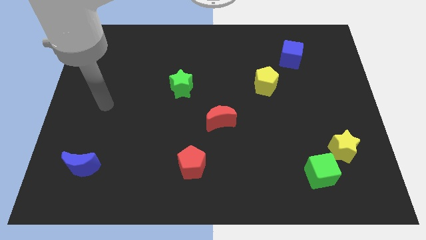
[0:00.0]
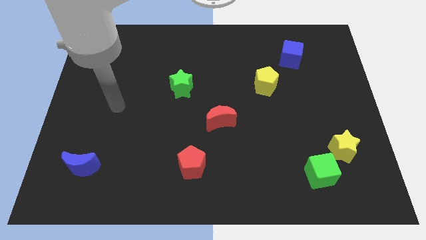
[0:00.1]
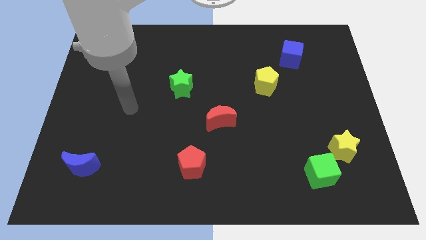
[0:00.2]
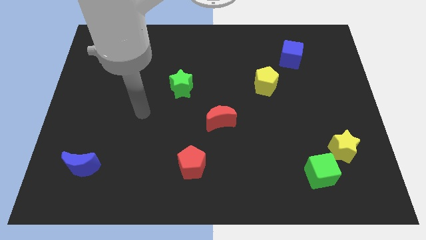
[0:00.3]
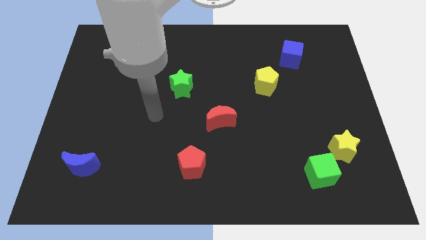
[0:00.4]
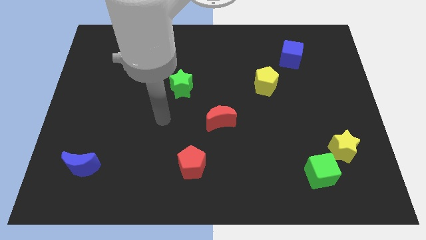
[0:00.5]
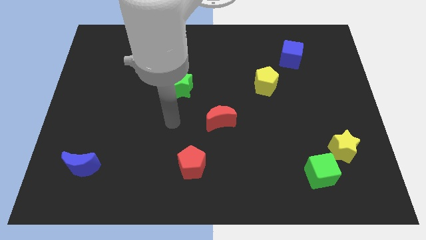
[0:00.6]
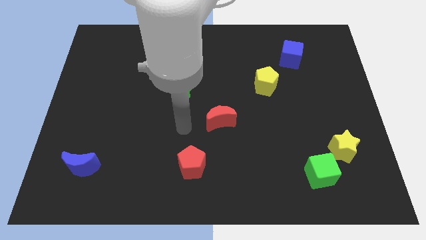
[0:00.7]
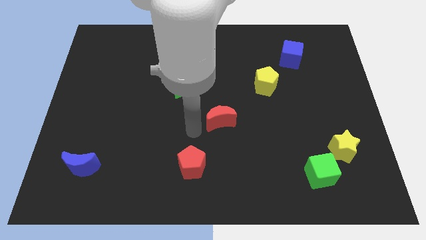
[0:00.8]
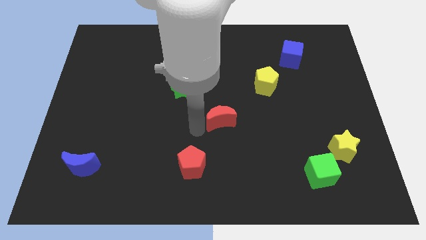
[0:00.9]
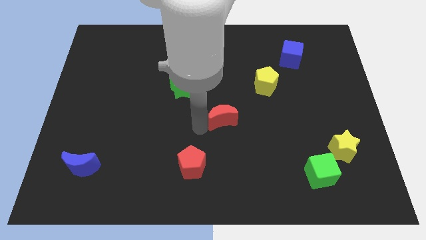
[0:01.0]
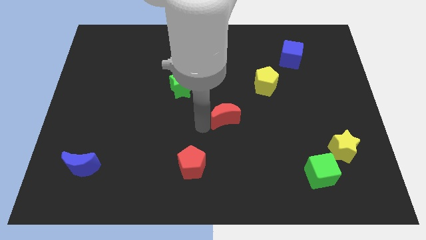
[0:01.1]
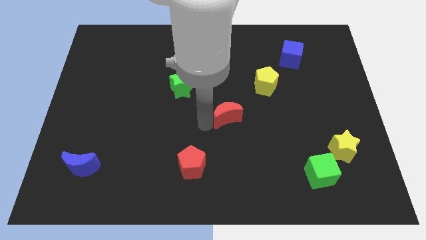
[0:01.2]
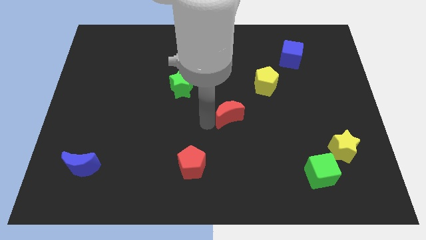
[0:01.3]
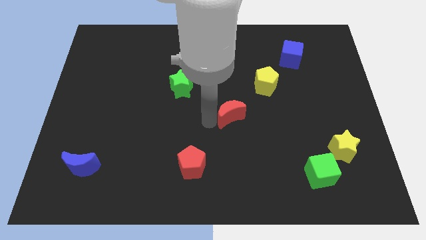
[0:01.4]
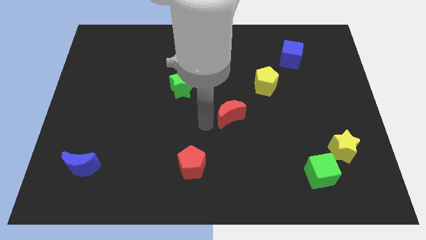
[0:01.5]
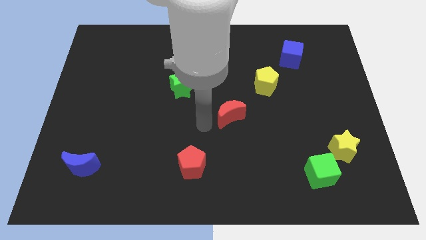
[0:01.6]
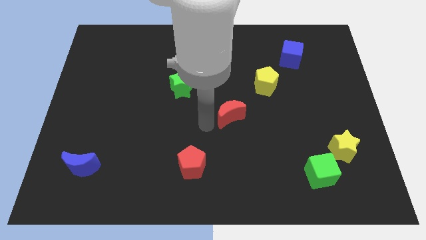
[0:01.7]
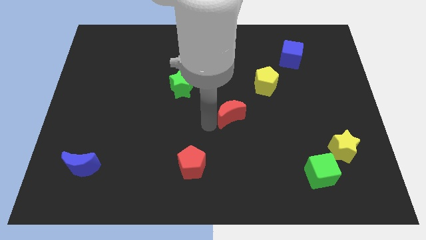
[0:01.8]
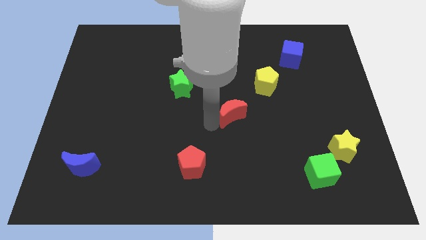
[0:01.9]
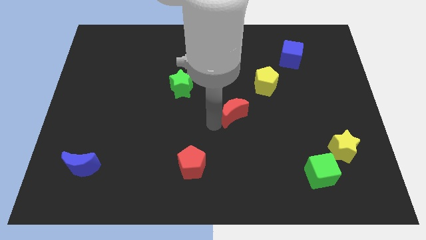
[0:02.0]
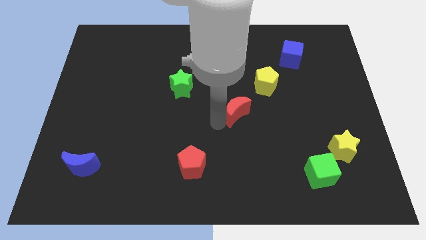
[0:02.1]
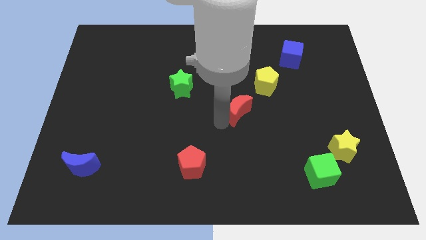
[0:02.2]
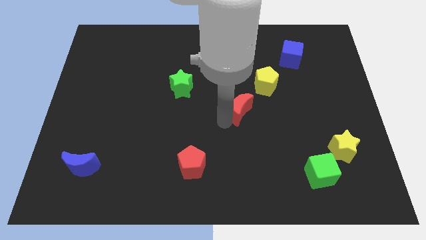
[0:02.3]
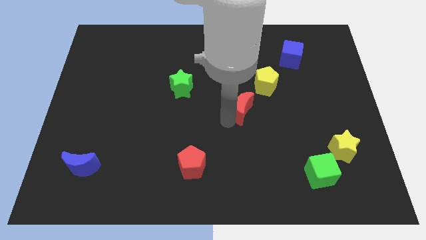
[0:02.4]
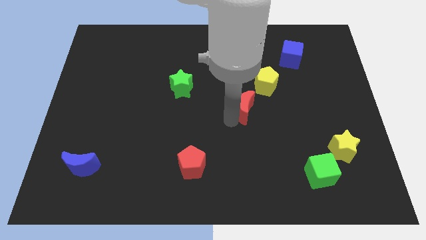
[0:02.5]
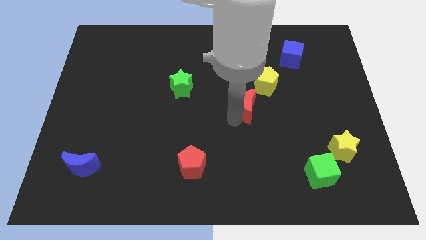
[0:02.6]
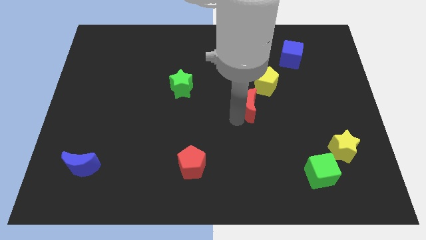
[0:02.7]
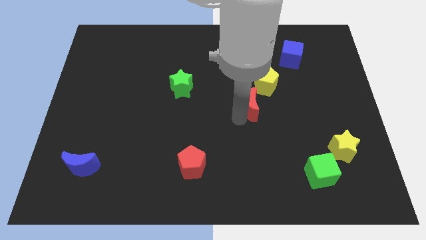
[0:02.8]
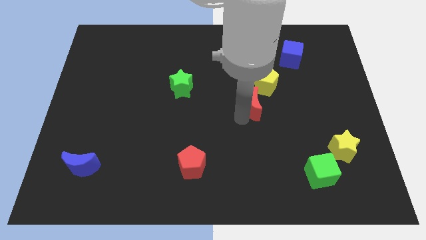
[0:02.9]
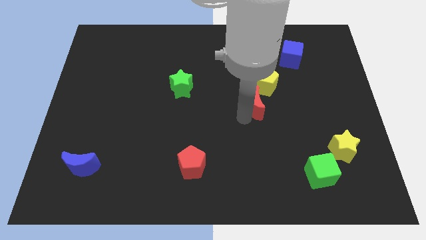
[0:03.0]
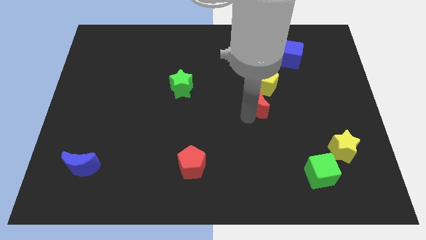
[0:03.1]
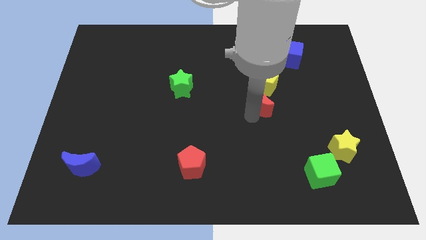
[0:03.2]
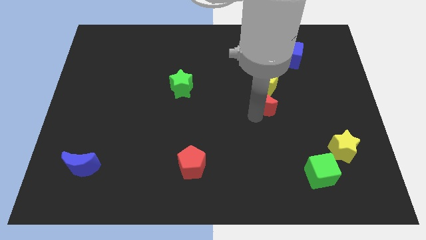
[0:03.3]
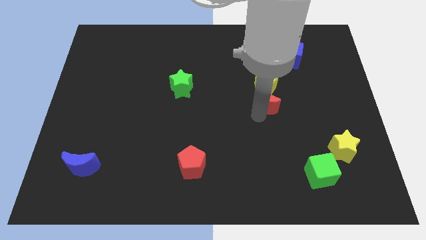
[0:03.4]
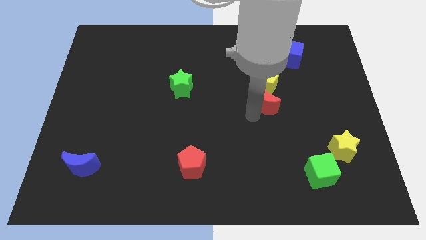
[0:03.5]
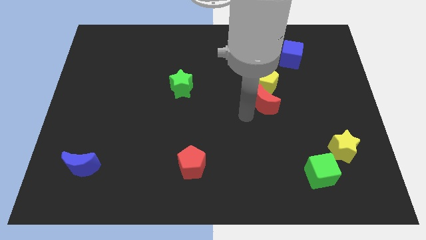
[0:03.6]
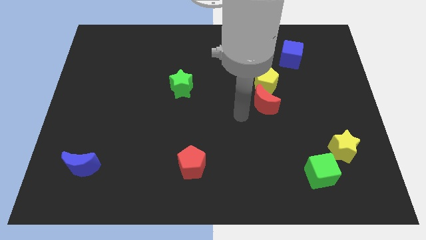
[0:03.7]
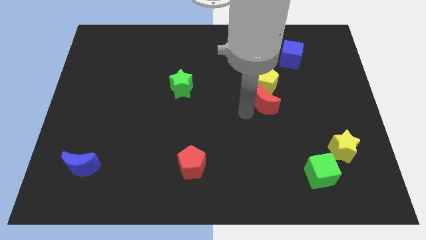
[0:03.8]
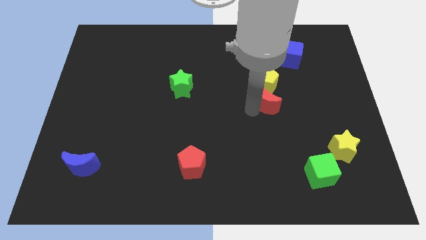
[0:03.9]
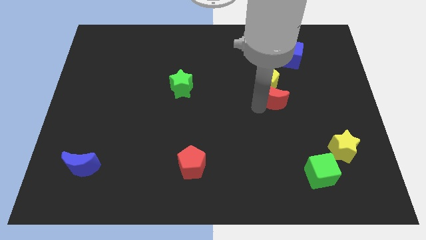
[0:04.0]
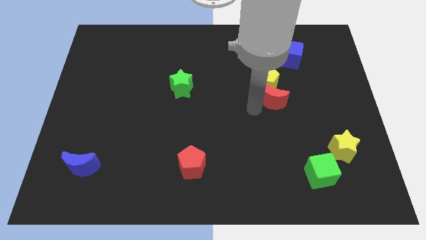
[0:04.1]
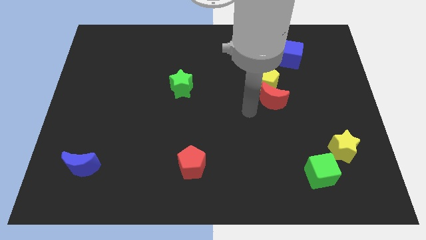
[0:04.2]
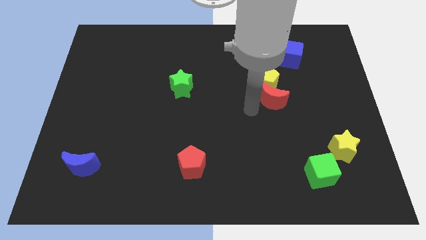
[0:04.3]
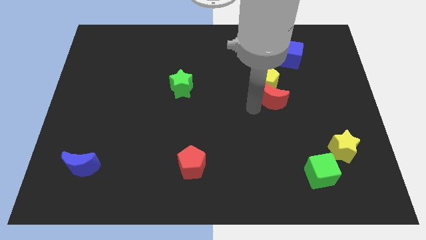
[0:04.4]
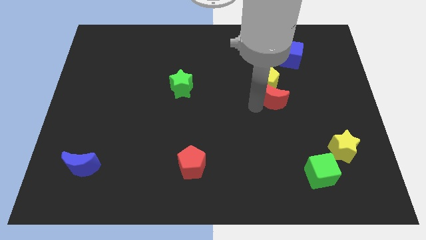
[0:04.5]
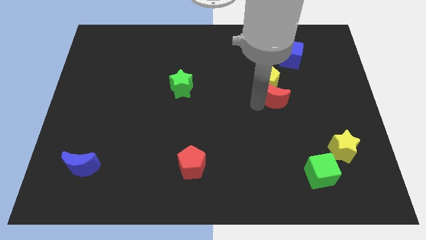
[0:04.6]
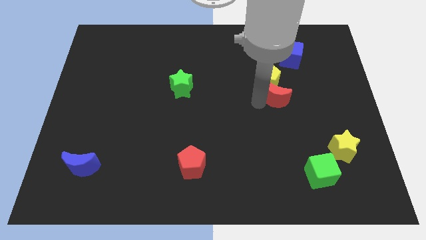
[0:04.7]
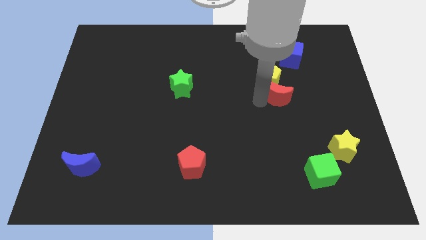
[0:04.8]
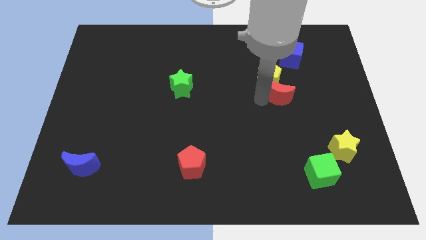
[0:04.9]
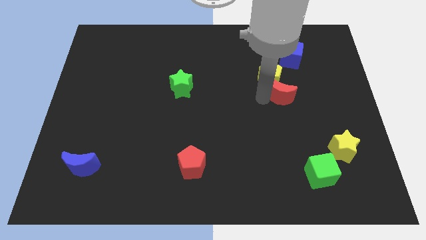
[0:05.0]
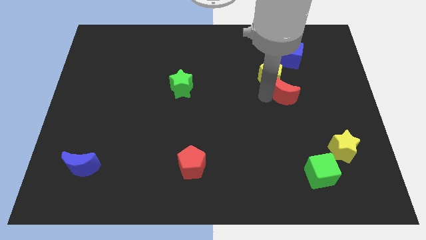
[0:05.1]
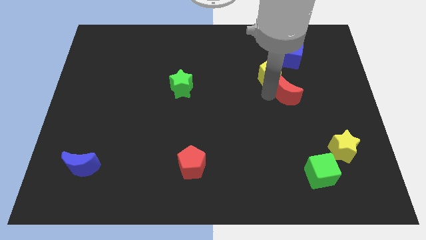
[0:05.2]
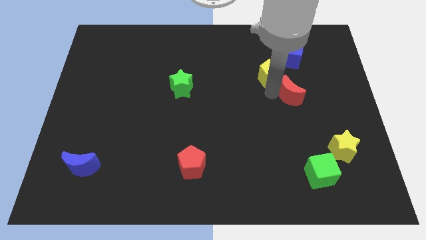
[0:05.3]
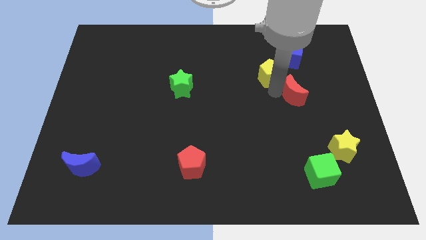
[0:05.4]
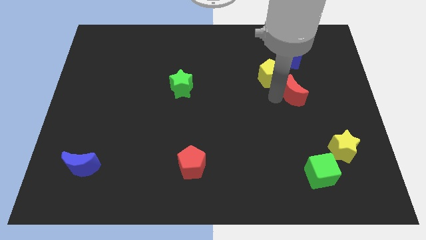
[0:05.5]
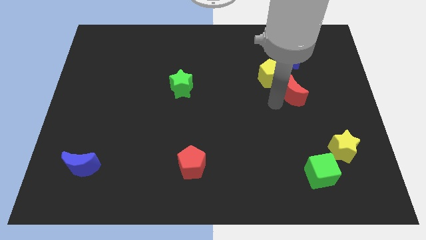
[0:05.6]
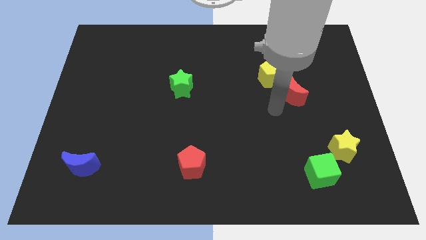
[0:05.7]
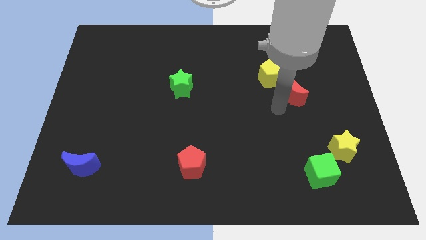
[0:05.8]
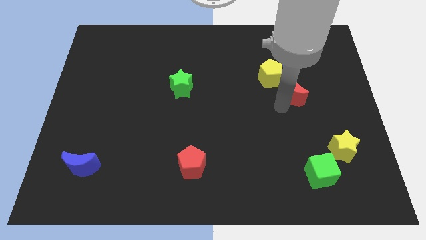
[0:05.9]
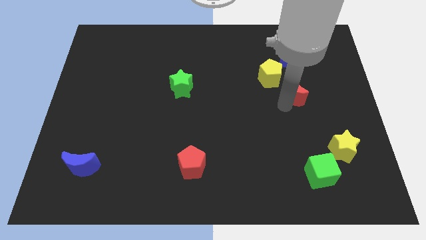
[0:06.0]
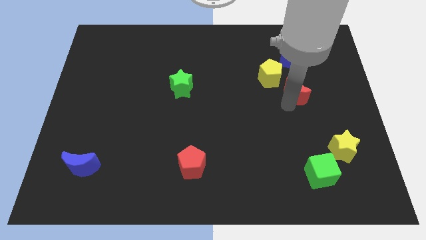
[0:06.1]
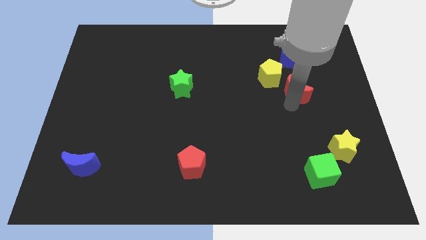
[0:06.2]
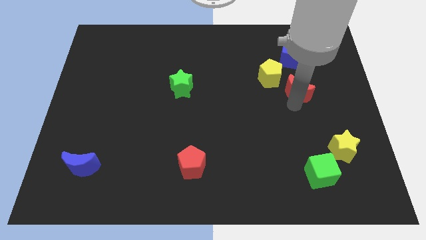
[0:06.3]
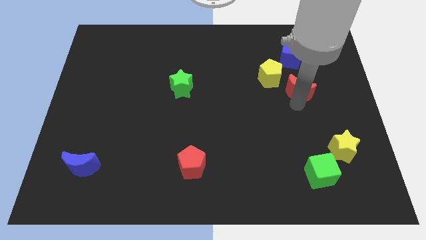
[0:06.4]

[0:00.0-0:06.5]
push the red moon to the right side of the yellow pentagon
